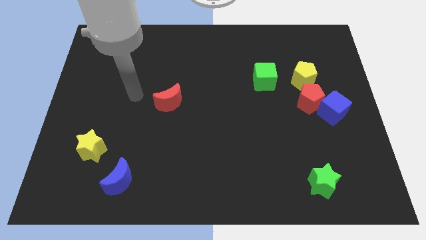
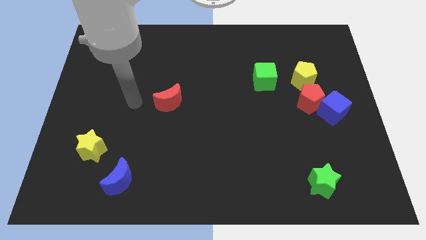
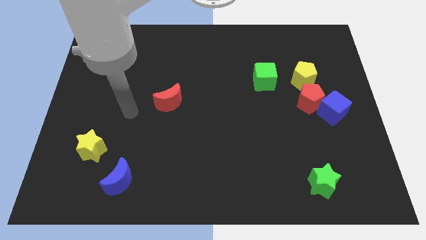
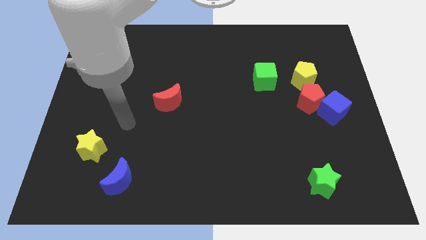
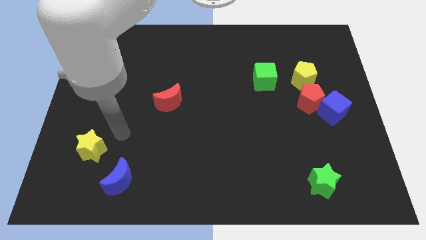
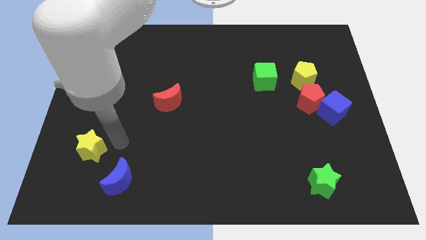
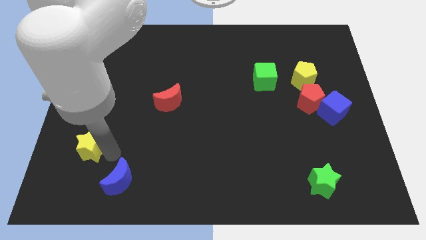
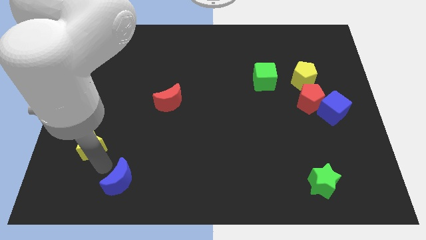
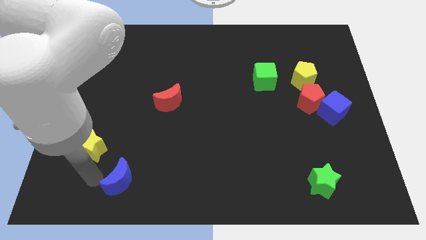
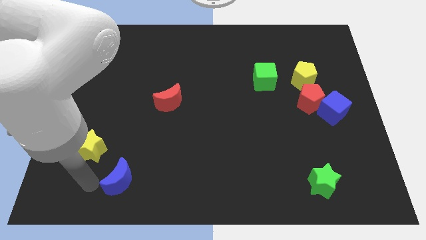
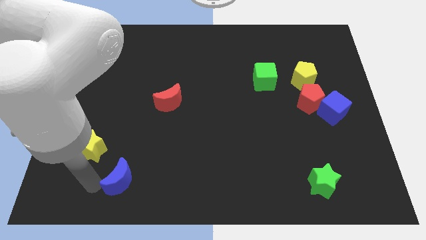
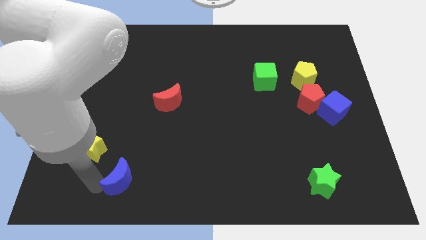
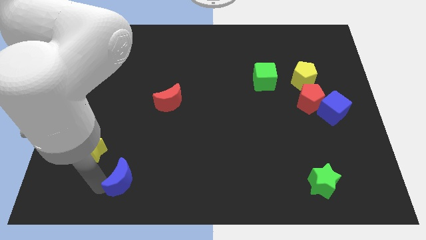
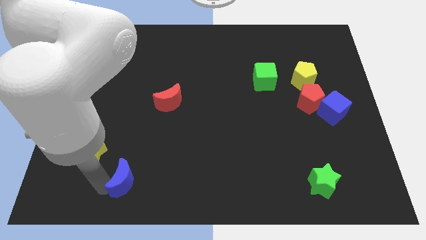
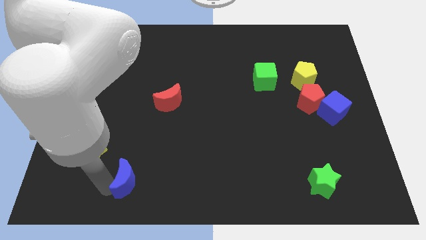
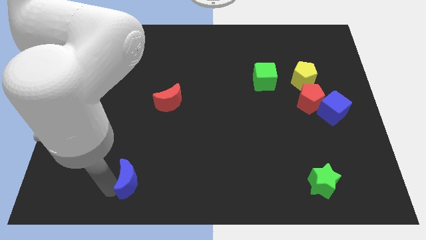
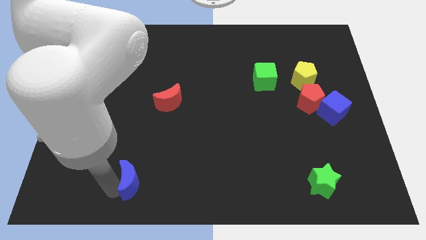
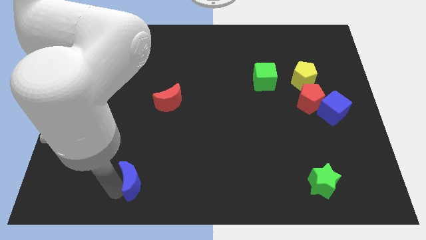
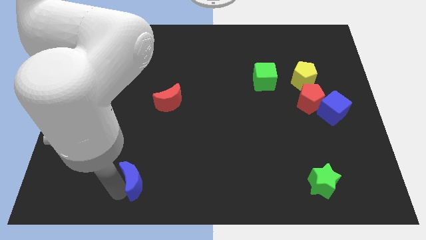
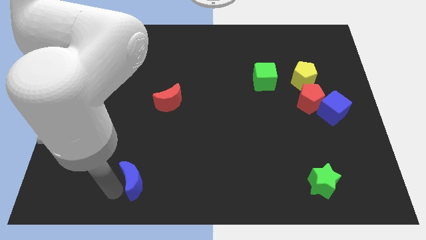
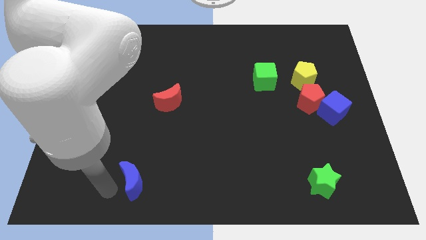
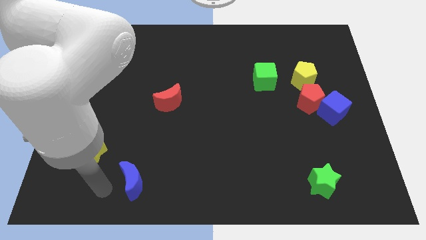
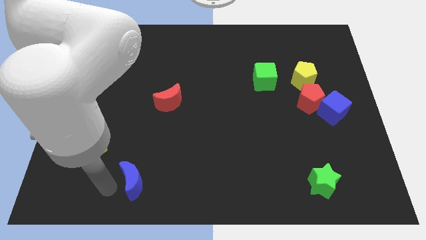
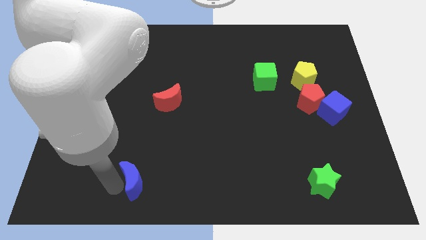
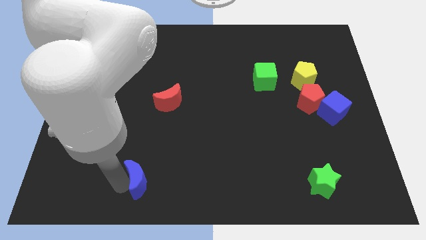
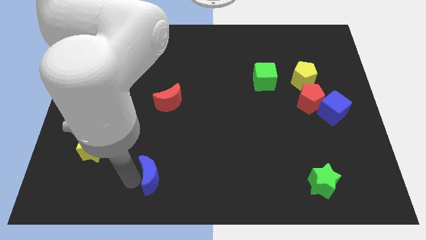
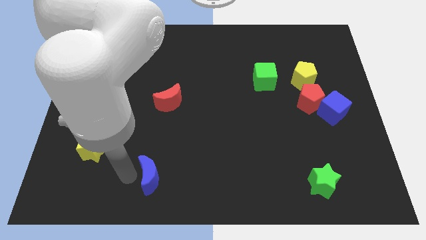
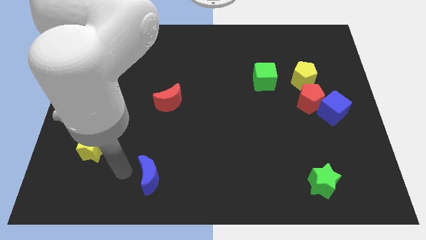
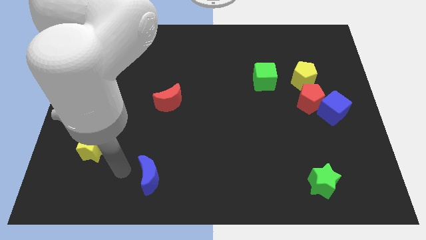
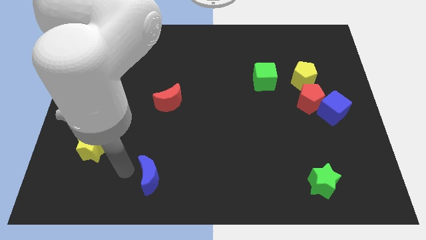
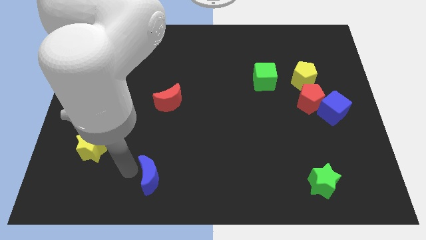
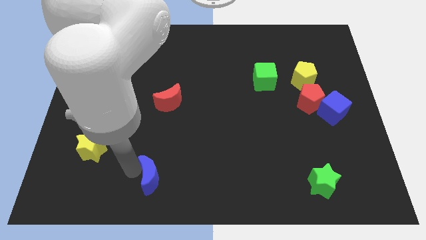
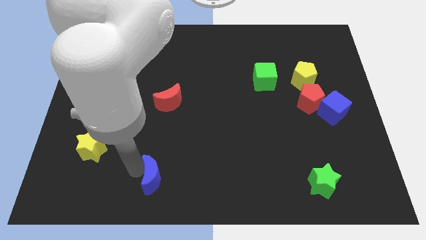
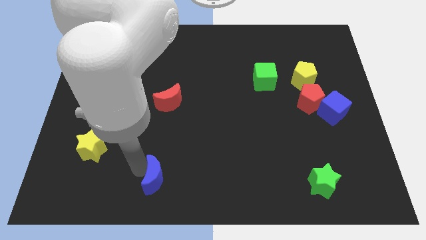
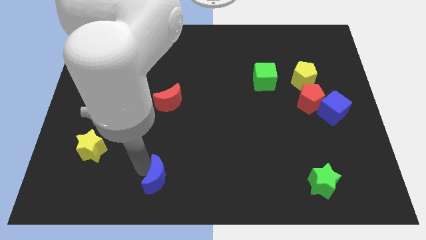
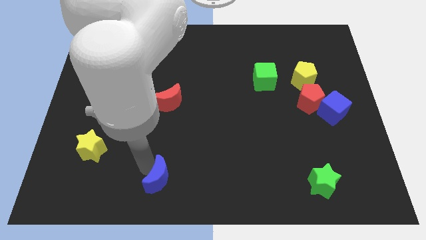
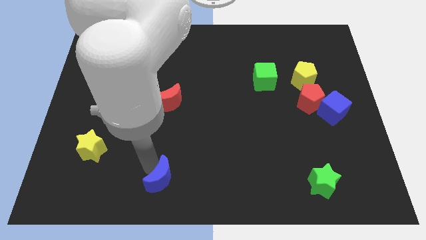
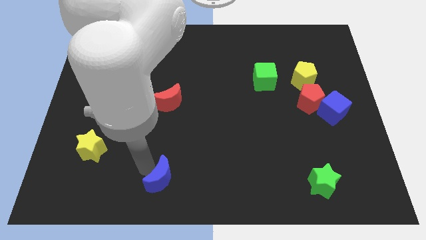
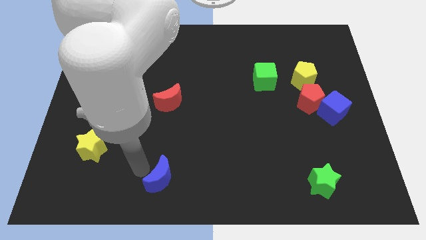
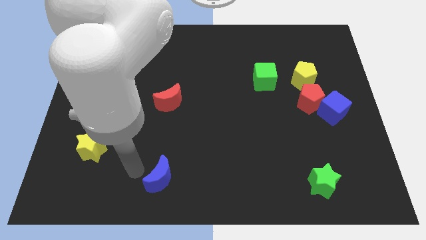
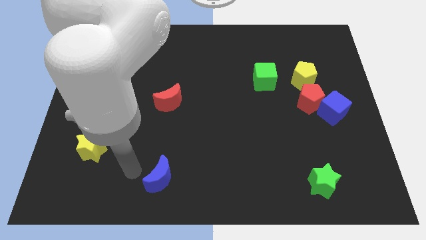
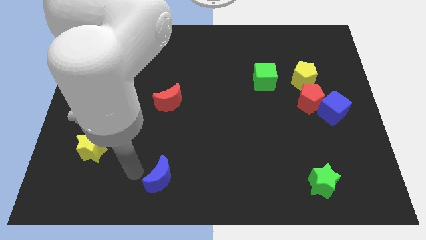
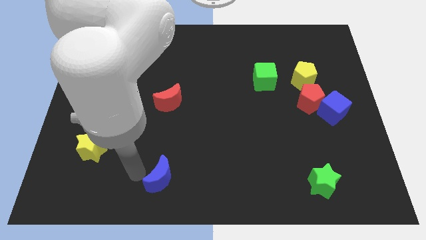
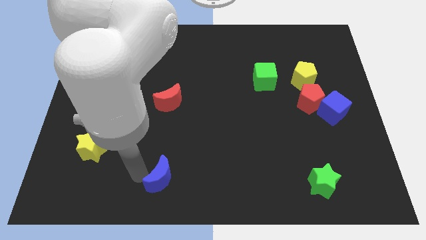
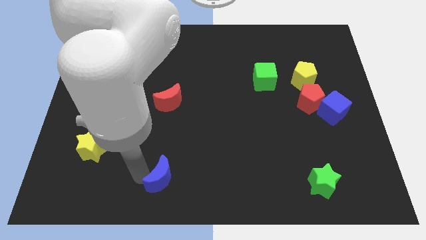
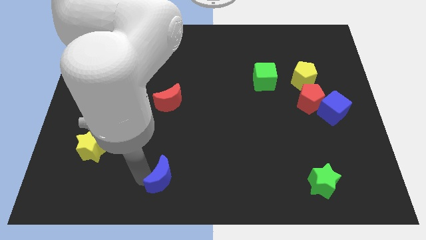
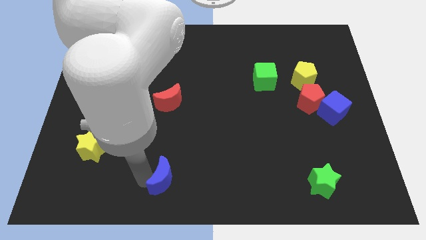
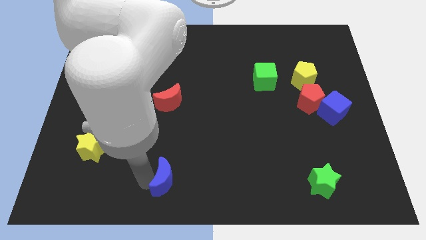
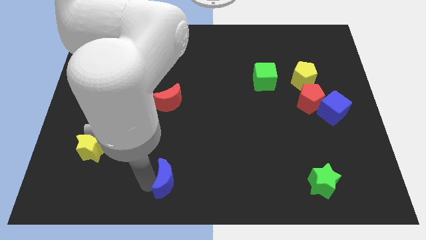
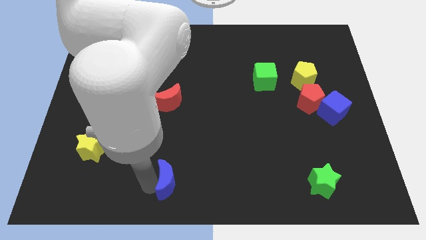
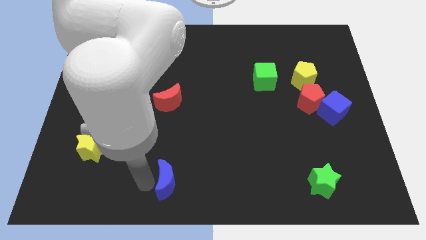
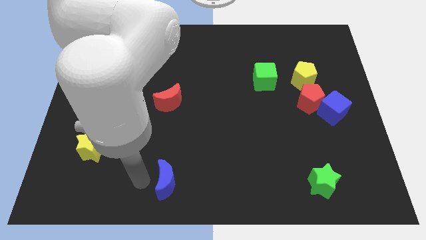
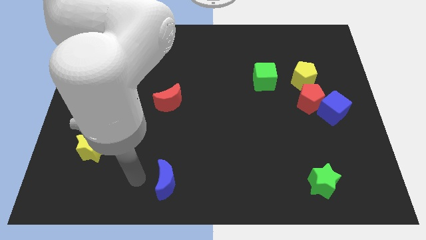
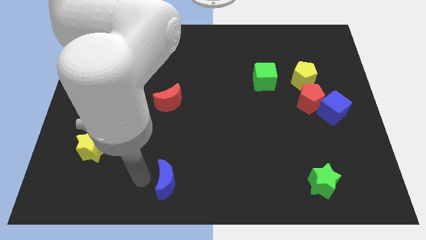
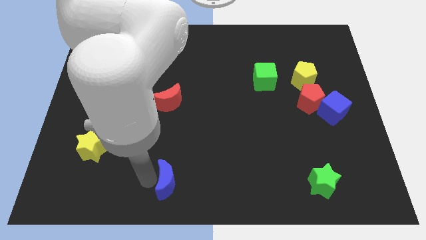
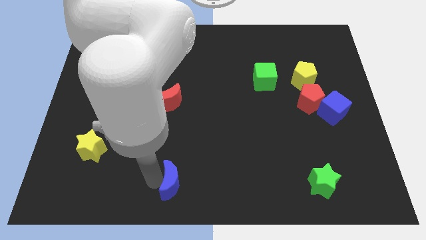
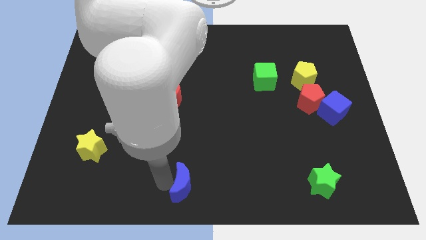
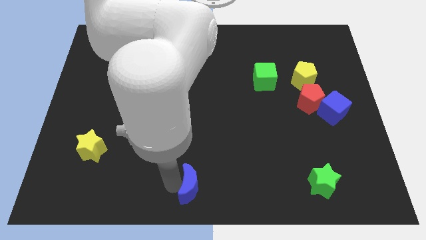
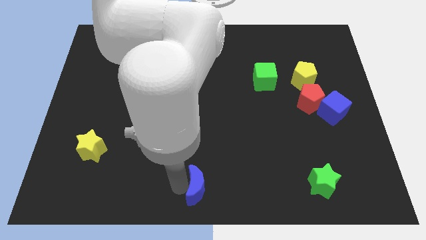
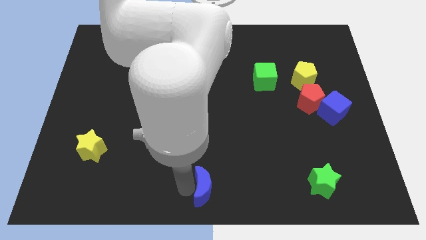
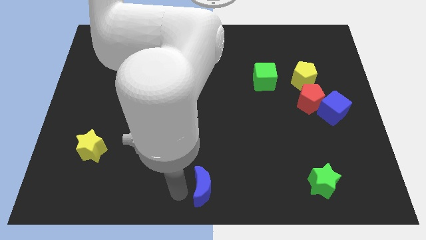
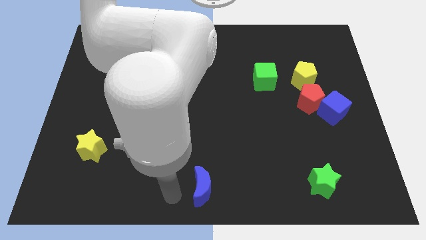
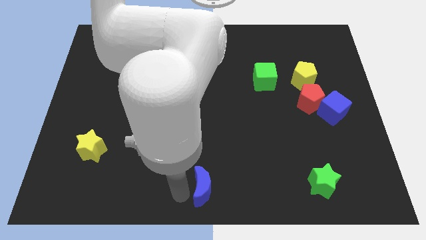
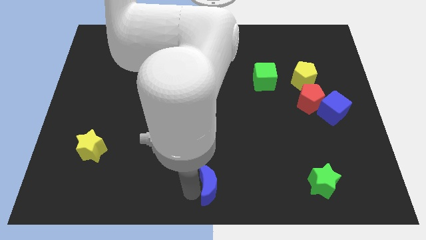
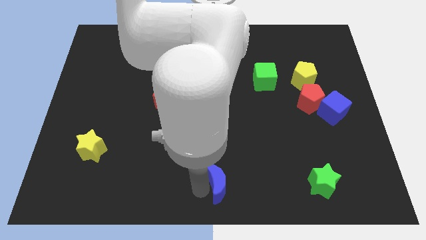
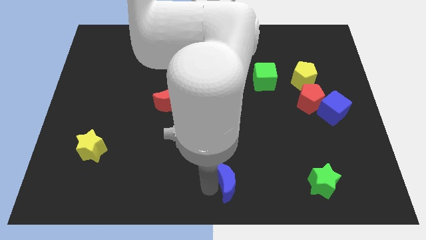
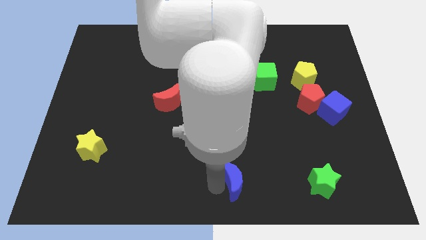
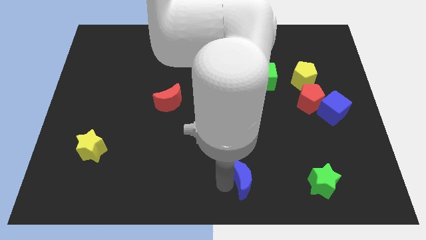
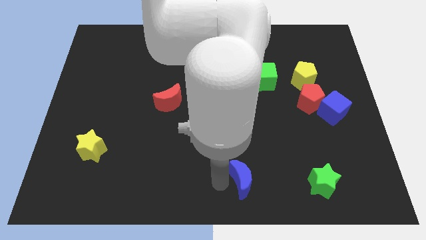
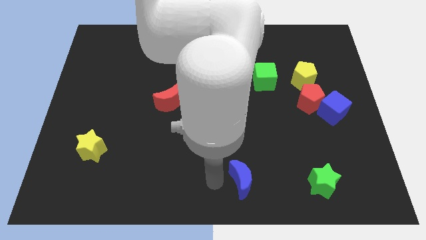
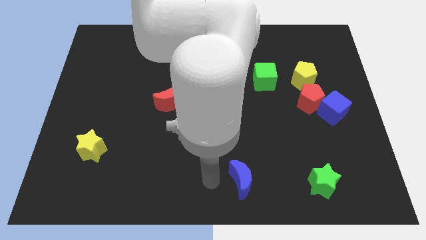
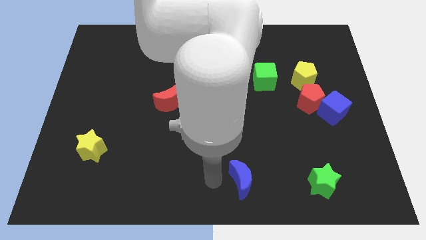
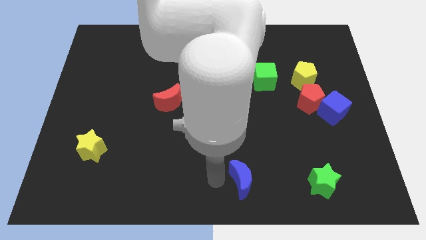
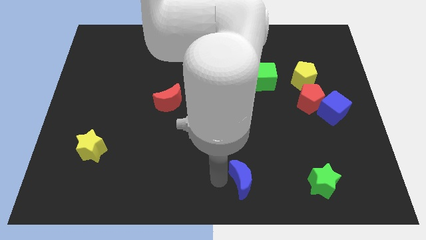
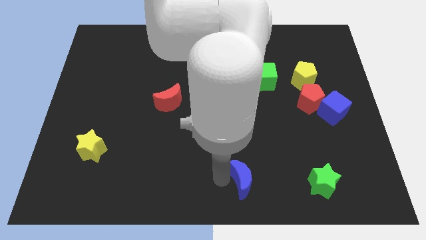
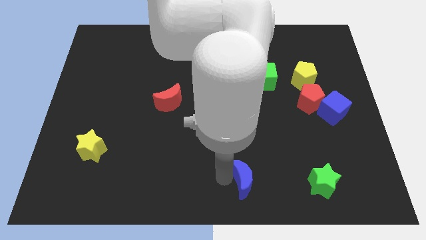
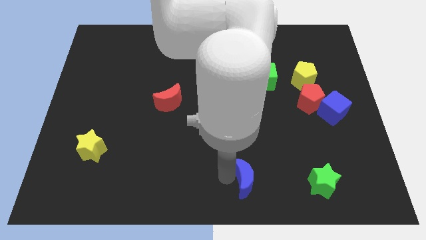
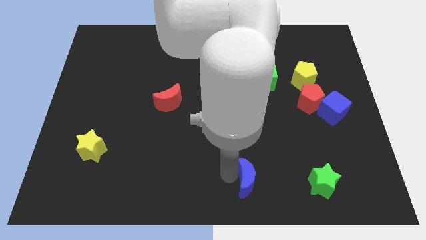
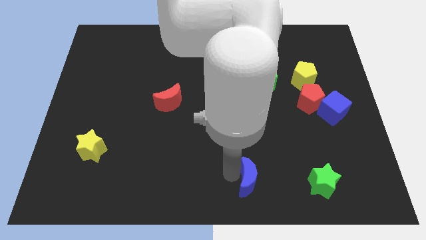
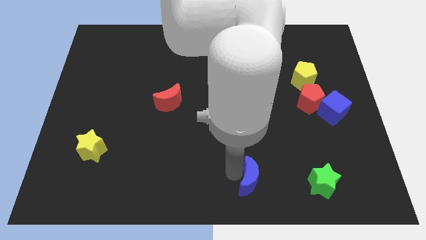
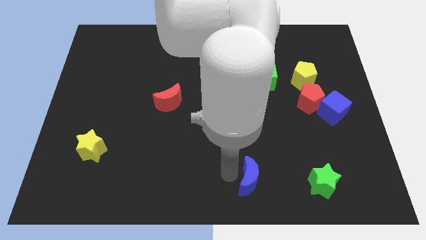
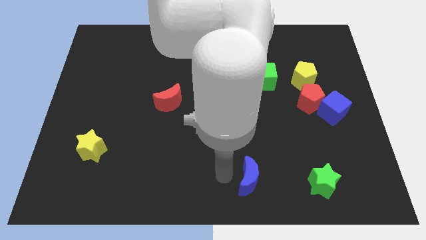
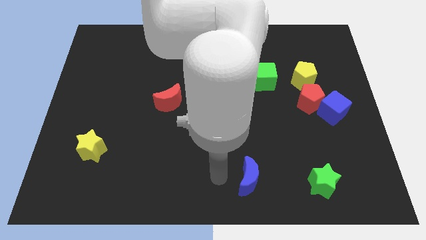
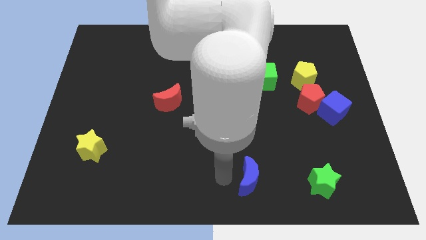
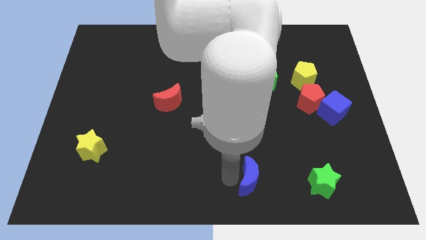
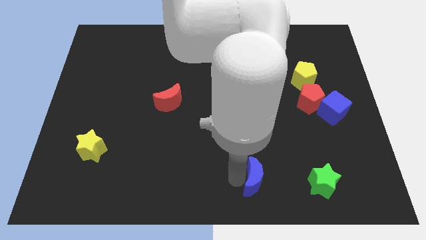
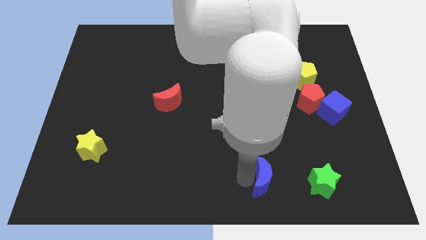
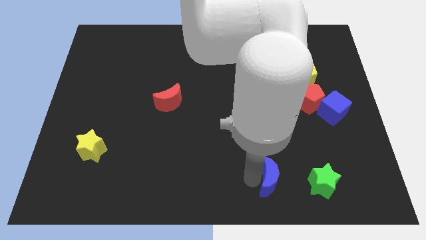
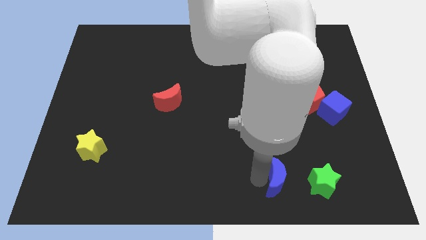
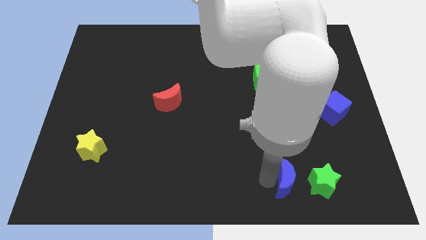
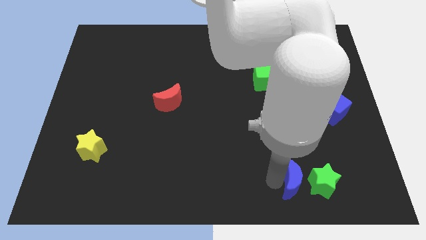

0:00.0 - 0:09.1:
push the blue moon close to the green star
